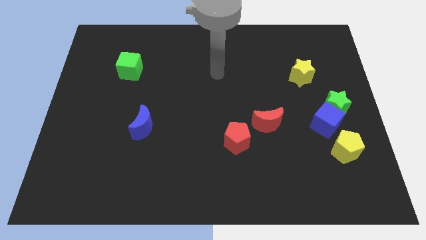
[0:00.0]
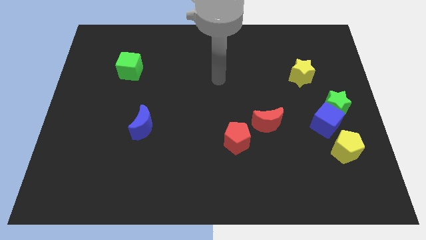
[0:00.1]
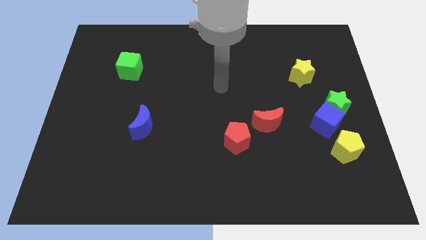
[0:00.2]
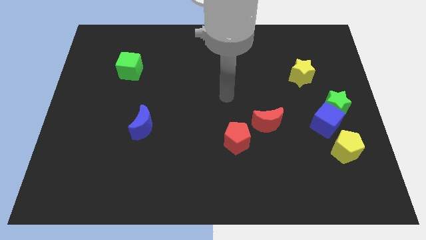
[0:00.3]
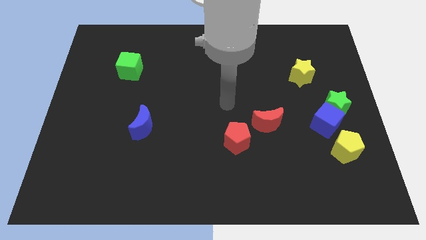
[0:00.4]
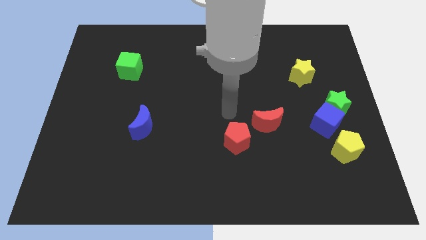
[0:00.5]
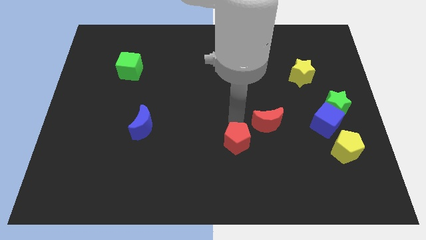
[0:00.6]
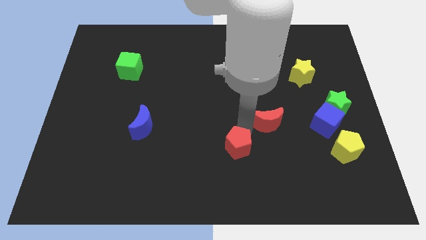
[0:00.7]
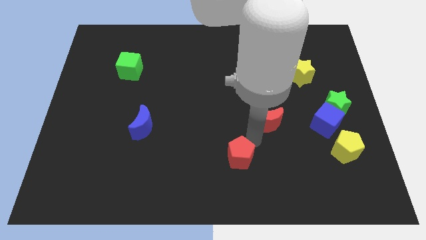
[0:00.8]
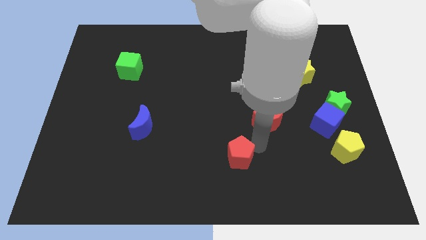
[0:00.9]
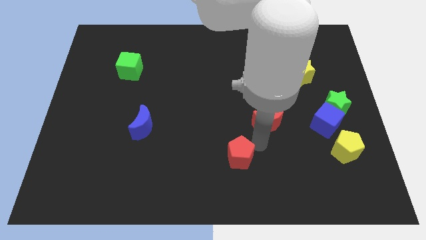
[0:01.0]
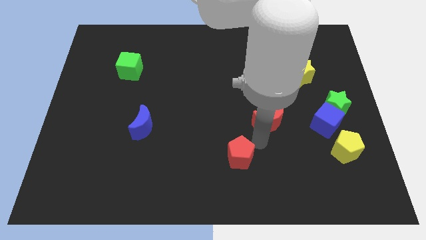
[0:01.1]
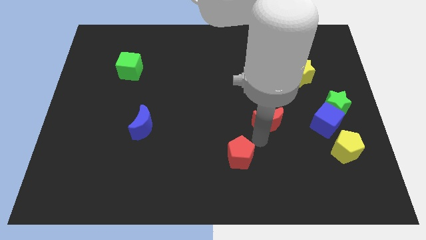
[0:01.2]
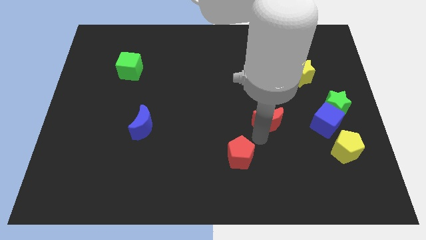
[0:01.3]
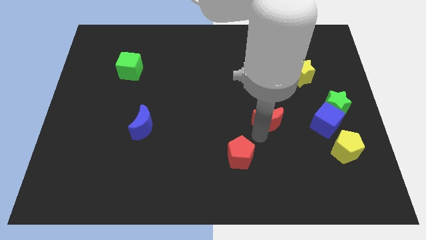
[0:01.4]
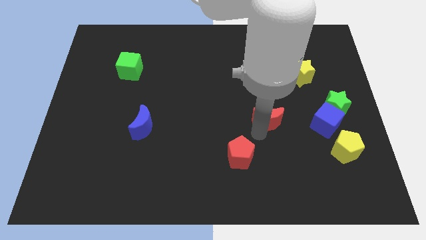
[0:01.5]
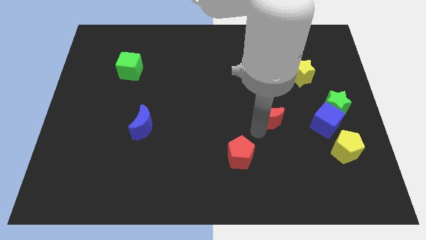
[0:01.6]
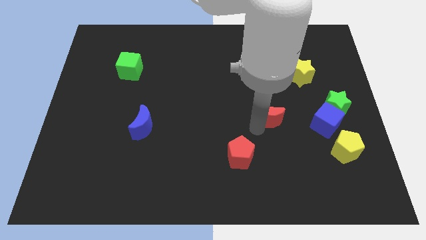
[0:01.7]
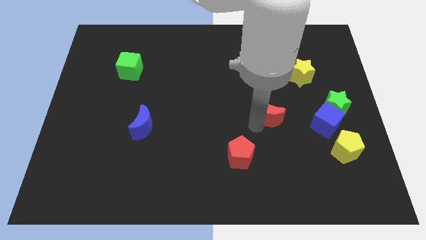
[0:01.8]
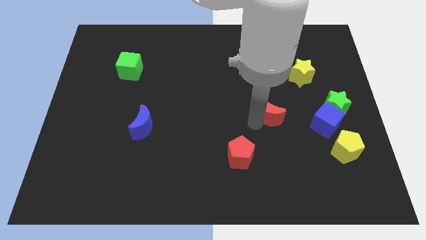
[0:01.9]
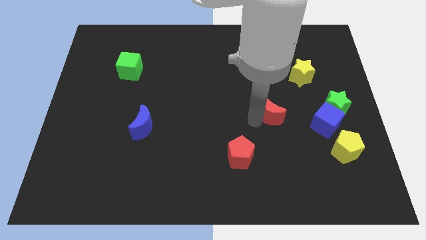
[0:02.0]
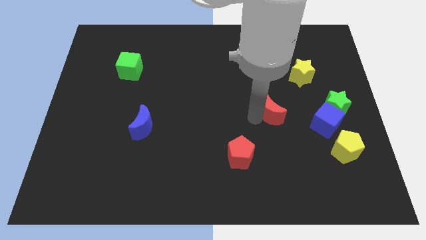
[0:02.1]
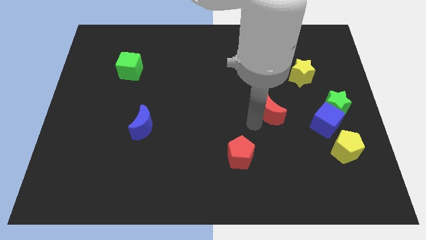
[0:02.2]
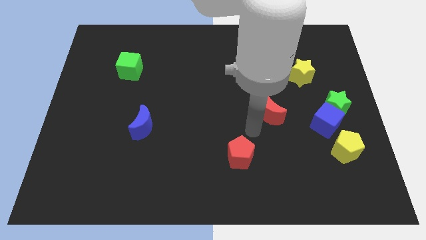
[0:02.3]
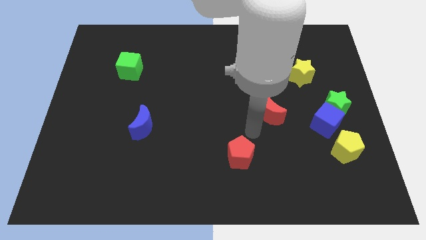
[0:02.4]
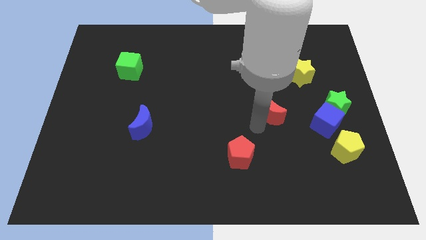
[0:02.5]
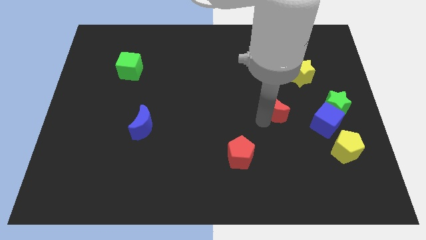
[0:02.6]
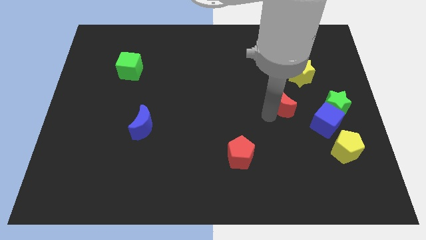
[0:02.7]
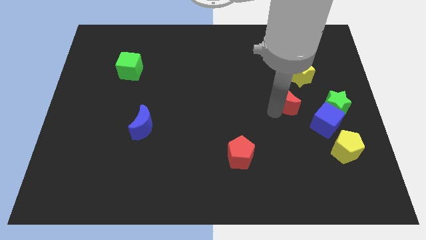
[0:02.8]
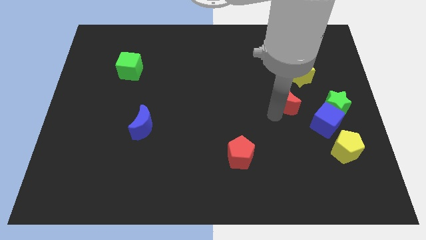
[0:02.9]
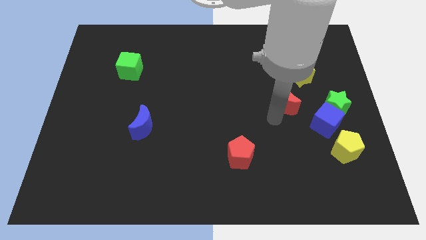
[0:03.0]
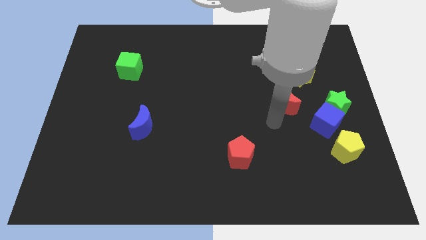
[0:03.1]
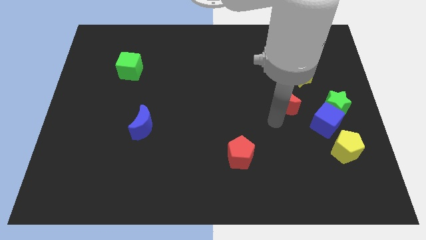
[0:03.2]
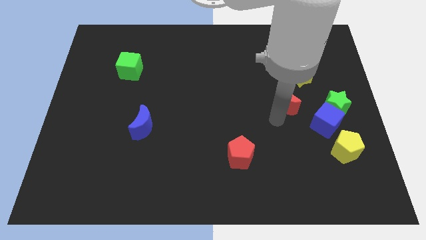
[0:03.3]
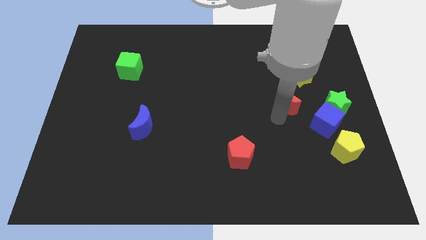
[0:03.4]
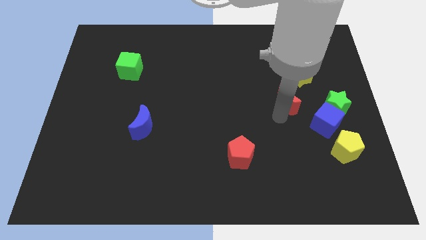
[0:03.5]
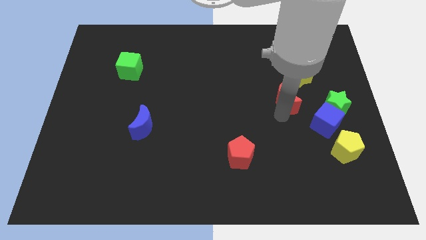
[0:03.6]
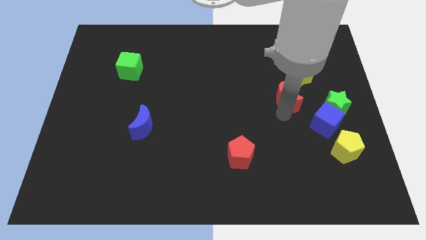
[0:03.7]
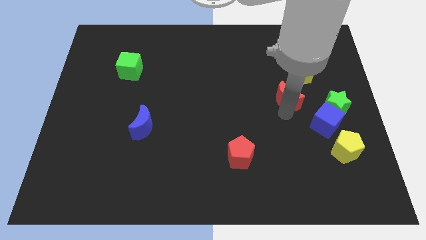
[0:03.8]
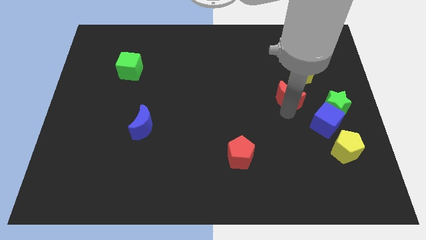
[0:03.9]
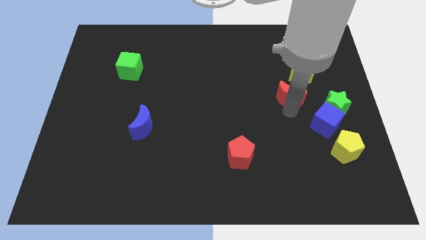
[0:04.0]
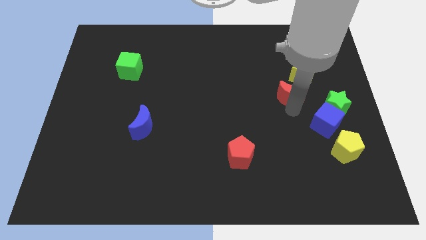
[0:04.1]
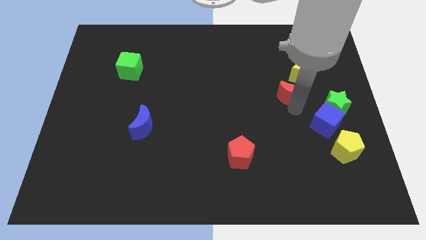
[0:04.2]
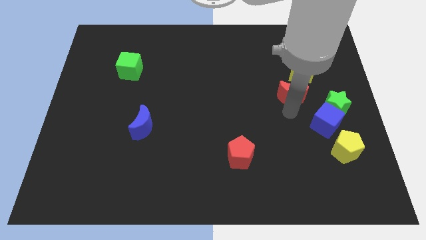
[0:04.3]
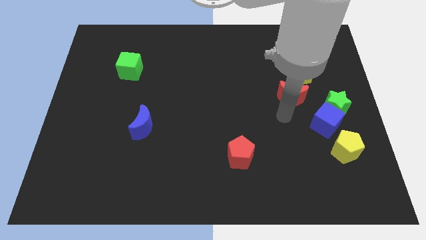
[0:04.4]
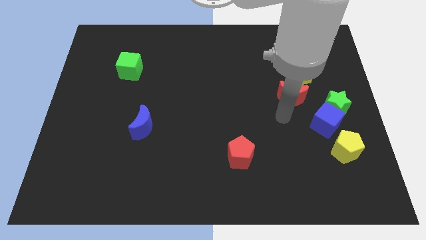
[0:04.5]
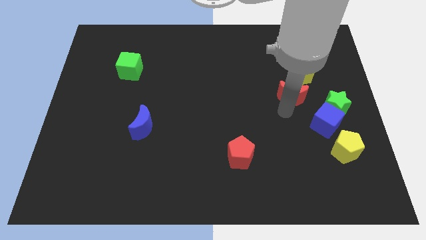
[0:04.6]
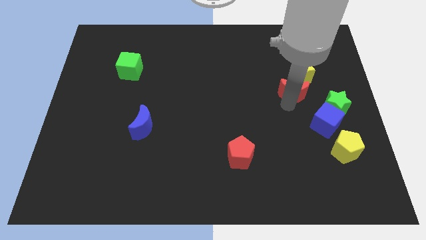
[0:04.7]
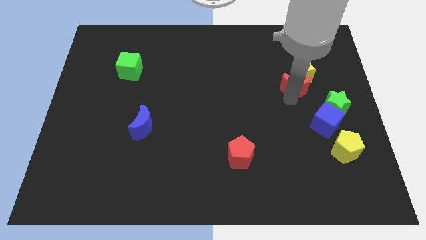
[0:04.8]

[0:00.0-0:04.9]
put the red moon close to the yellow star

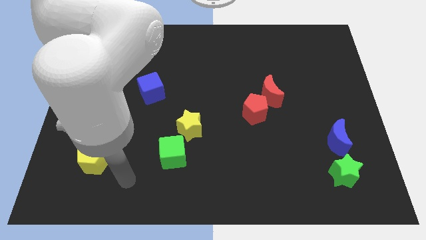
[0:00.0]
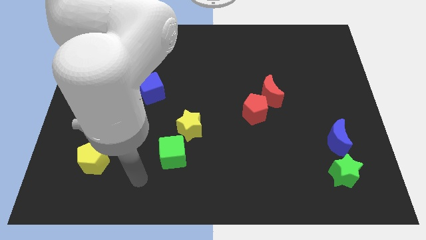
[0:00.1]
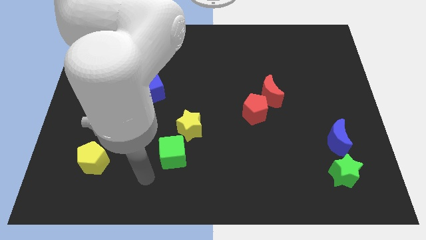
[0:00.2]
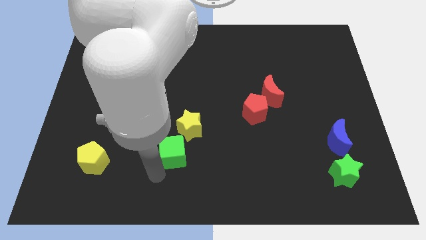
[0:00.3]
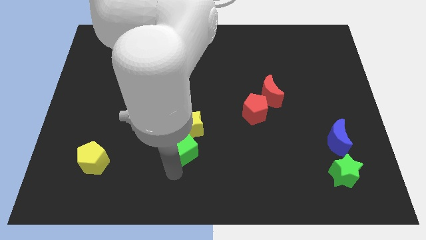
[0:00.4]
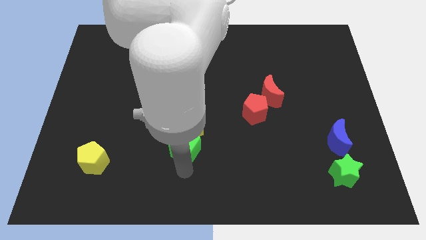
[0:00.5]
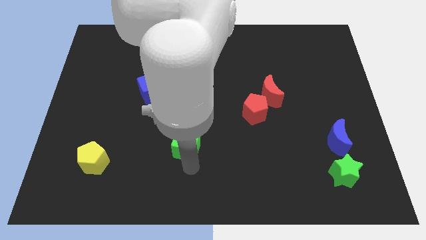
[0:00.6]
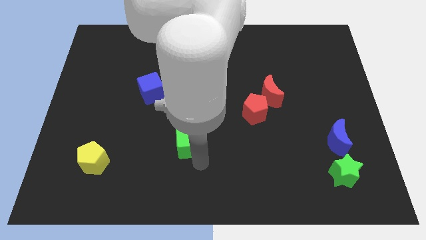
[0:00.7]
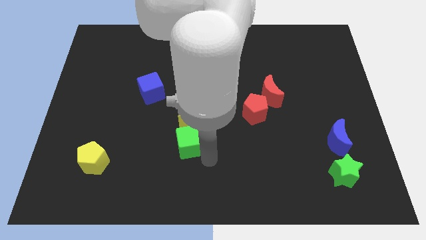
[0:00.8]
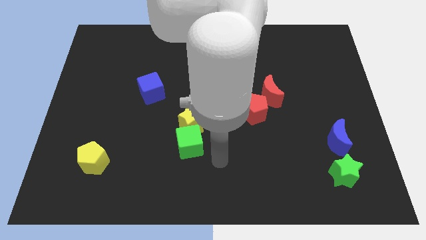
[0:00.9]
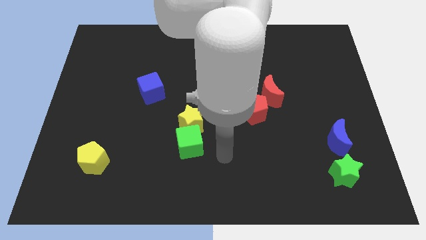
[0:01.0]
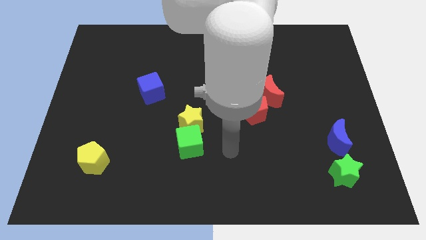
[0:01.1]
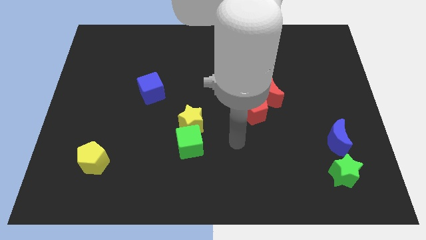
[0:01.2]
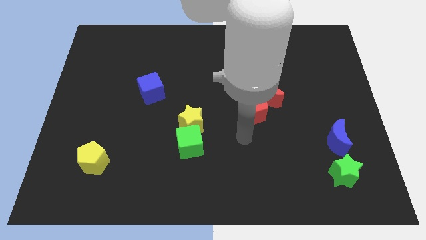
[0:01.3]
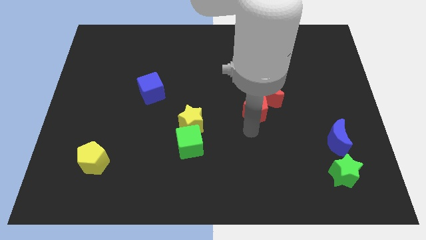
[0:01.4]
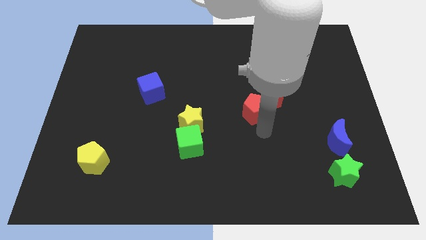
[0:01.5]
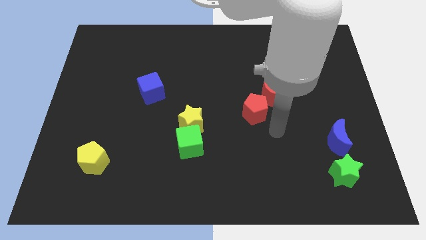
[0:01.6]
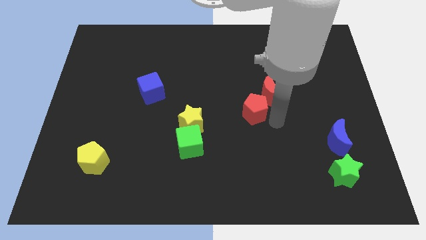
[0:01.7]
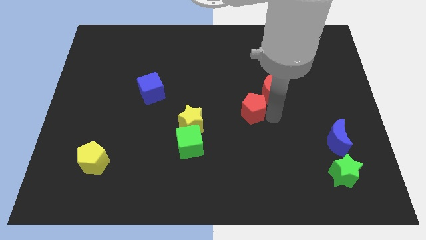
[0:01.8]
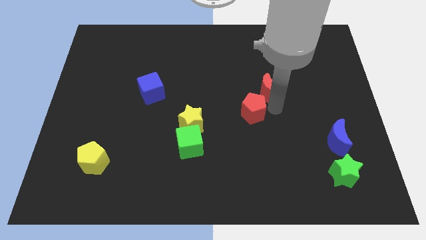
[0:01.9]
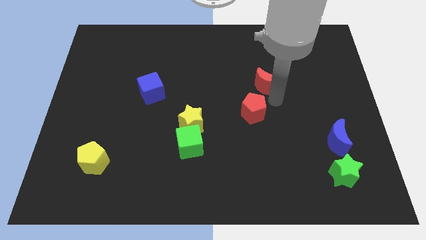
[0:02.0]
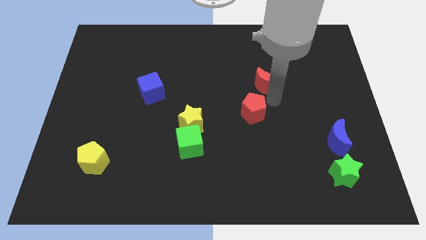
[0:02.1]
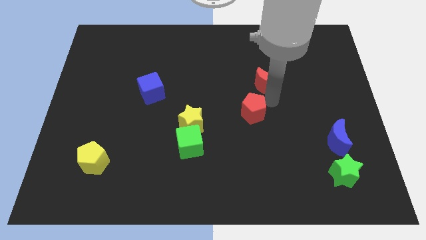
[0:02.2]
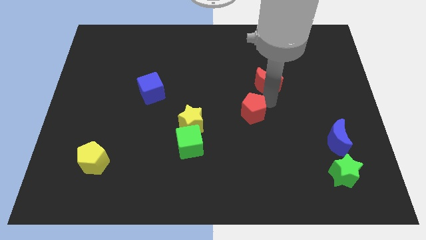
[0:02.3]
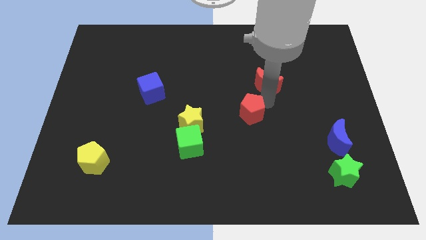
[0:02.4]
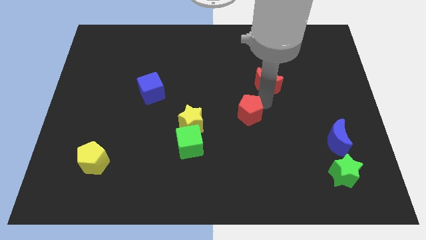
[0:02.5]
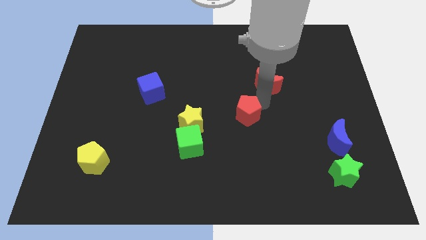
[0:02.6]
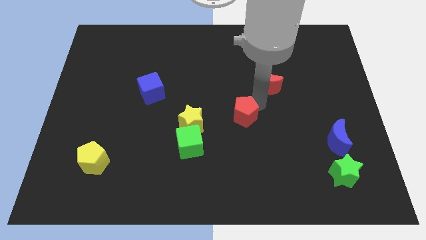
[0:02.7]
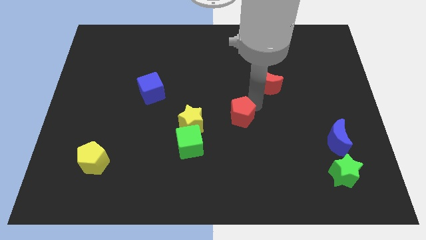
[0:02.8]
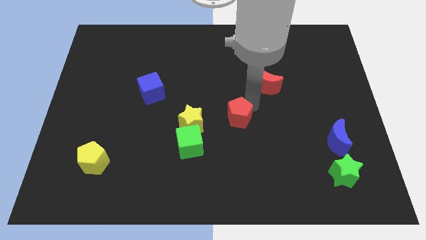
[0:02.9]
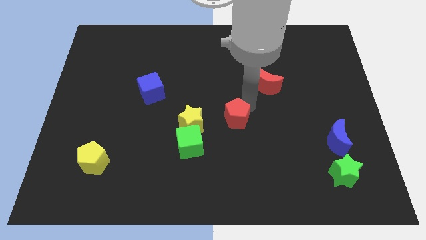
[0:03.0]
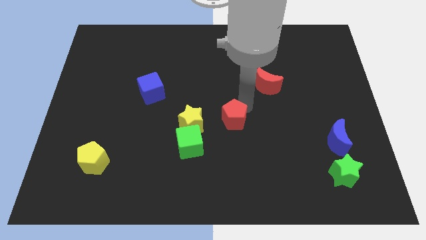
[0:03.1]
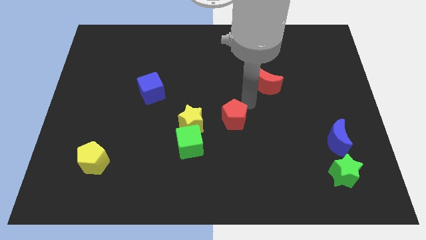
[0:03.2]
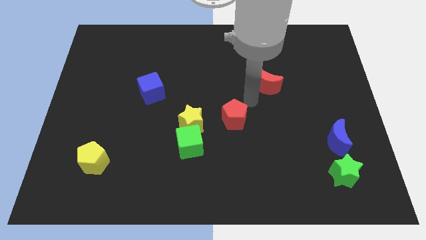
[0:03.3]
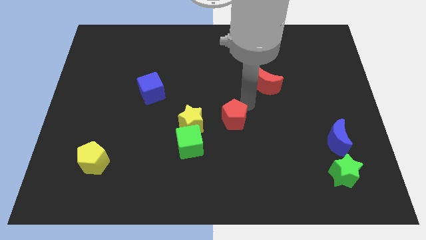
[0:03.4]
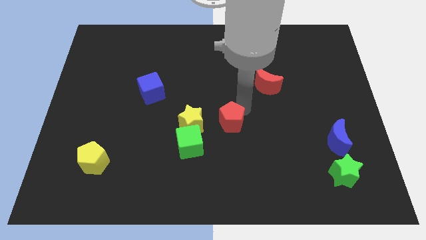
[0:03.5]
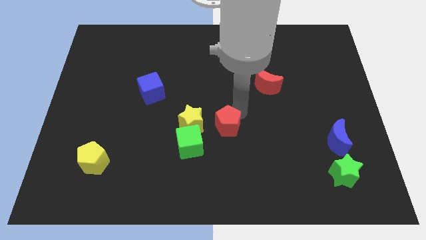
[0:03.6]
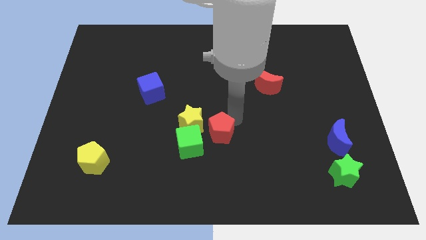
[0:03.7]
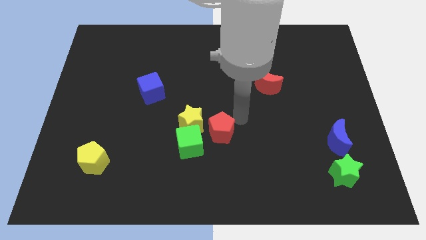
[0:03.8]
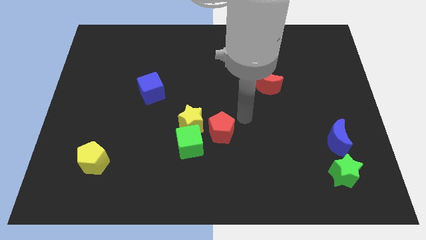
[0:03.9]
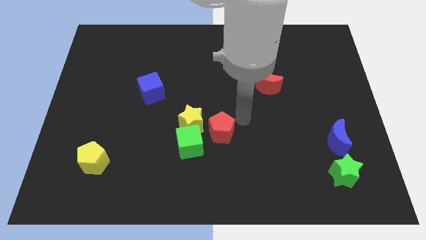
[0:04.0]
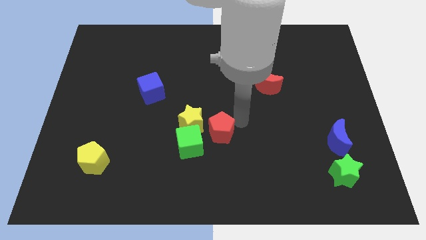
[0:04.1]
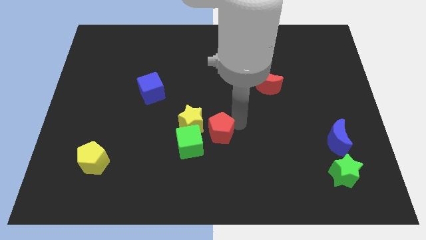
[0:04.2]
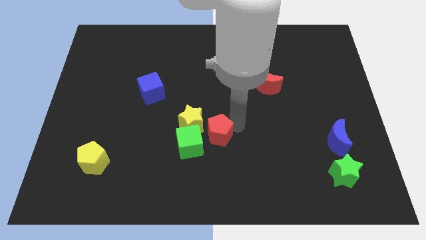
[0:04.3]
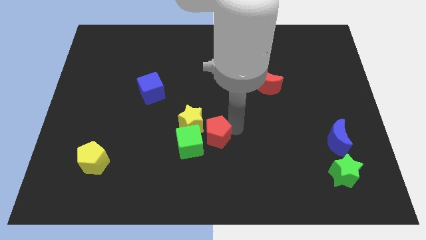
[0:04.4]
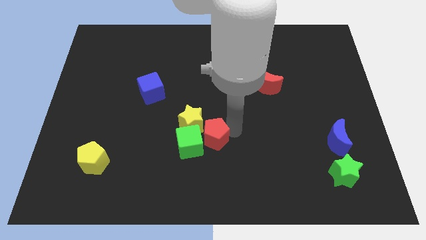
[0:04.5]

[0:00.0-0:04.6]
move the red pentagon to the green cube
